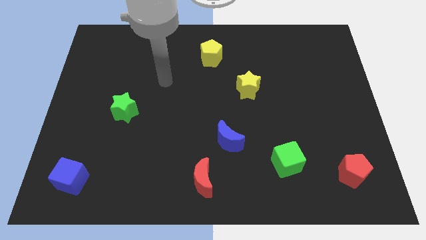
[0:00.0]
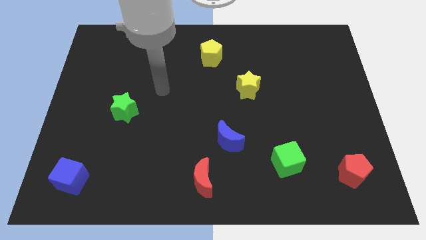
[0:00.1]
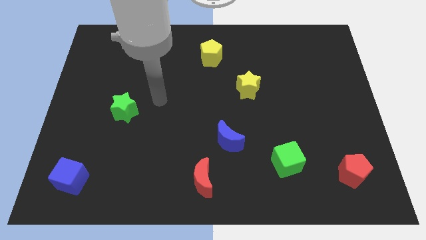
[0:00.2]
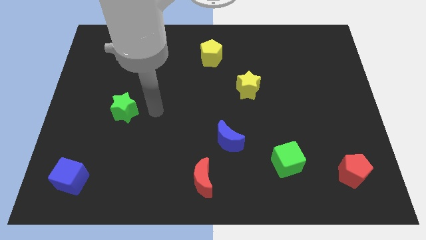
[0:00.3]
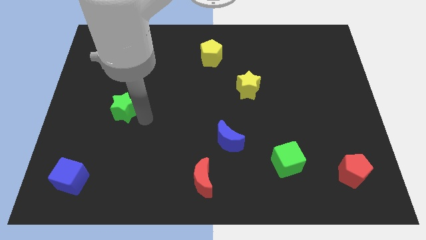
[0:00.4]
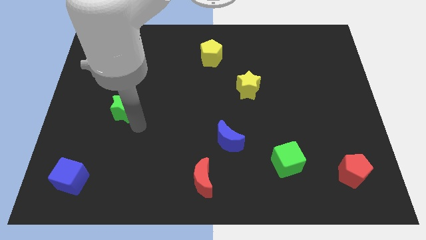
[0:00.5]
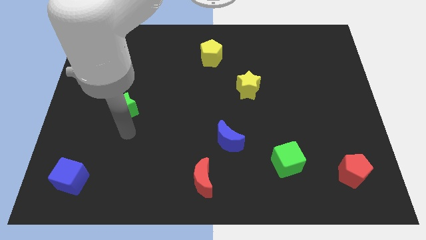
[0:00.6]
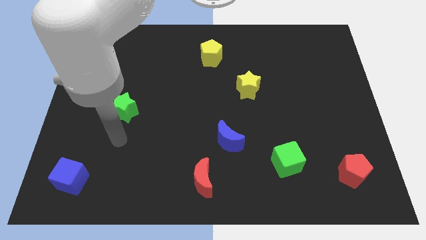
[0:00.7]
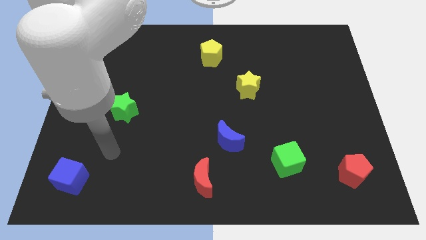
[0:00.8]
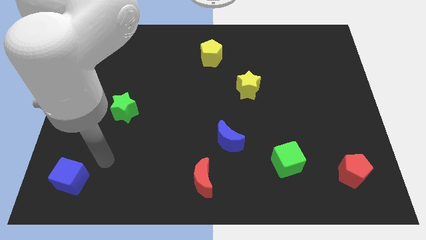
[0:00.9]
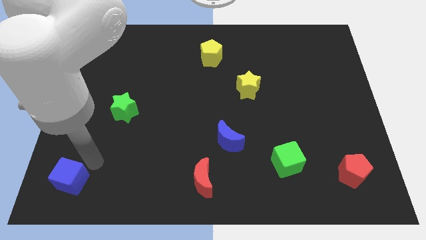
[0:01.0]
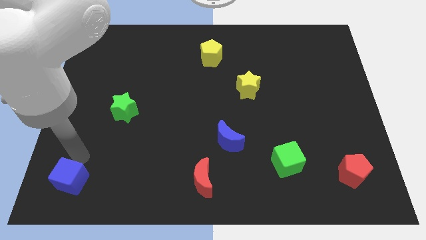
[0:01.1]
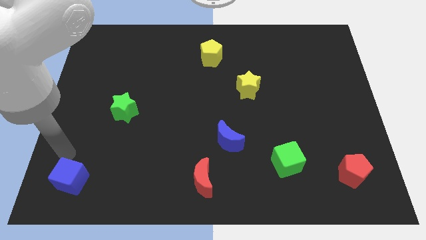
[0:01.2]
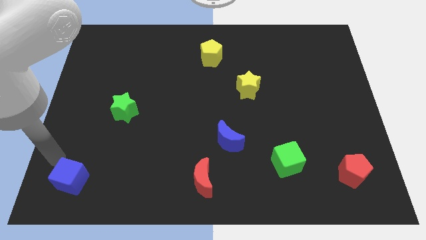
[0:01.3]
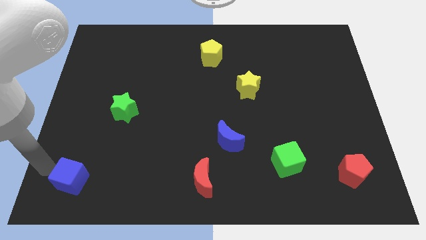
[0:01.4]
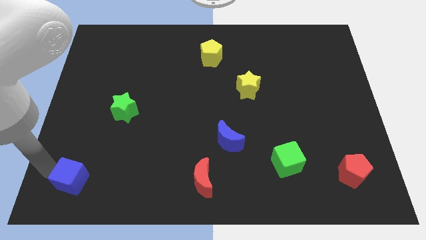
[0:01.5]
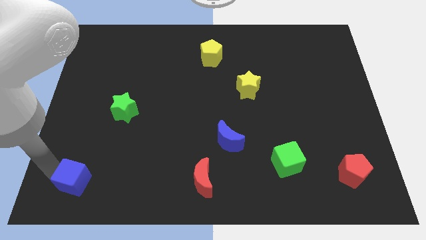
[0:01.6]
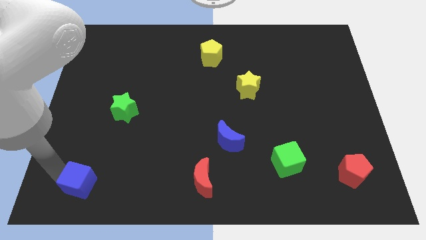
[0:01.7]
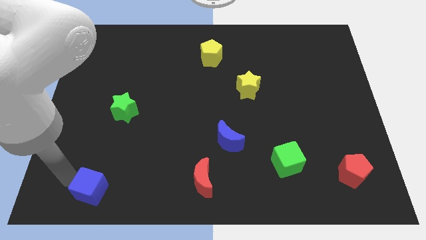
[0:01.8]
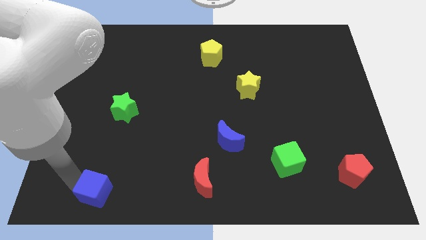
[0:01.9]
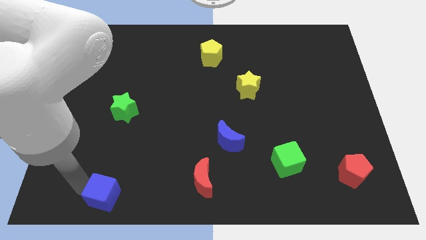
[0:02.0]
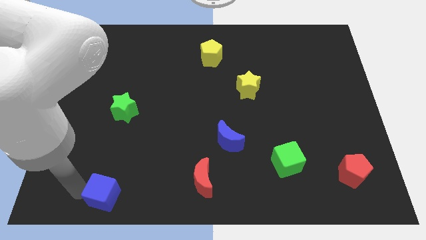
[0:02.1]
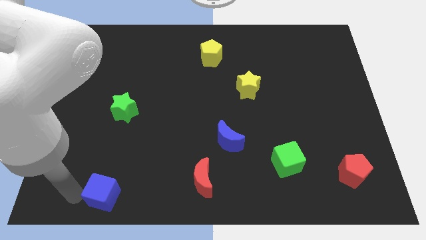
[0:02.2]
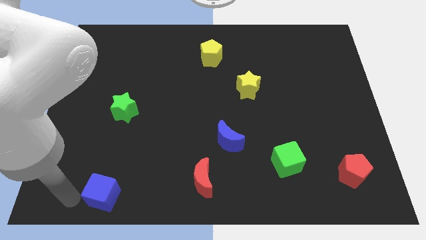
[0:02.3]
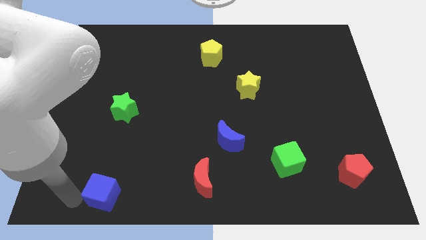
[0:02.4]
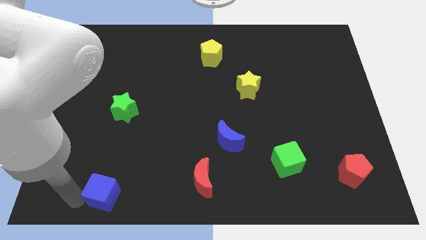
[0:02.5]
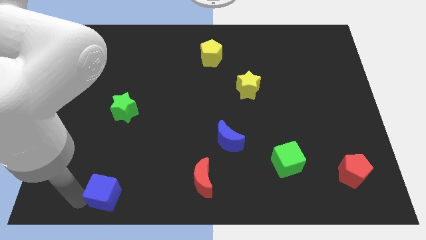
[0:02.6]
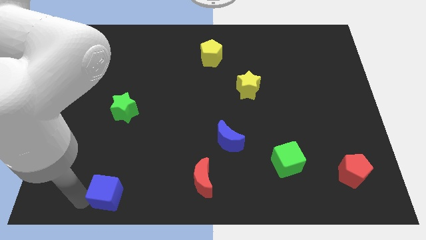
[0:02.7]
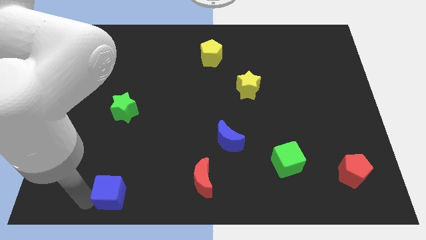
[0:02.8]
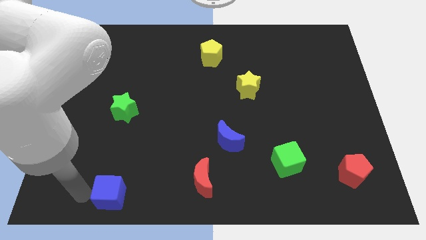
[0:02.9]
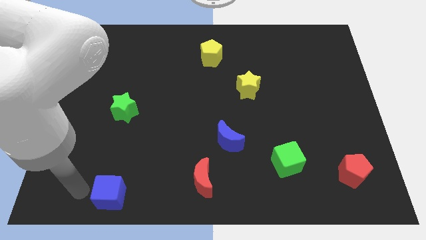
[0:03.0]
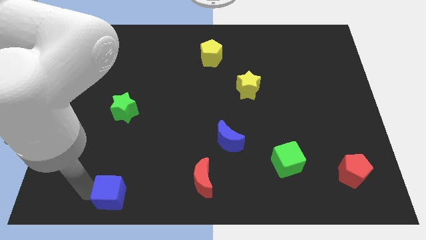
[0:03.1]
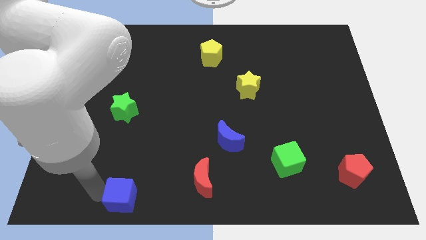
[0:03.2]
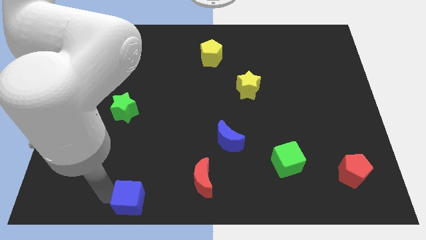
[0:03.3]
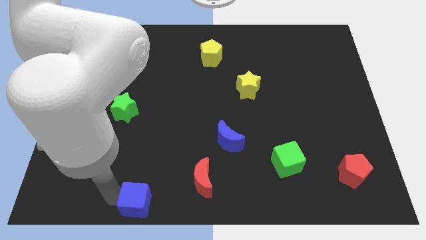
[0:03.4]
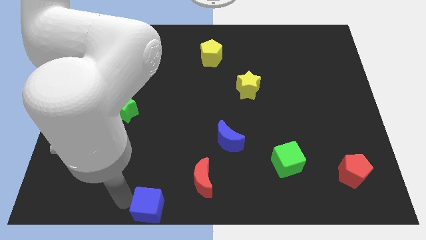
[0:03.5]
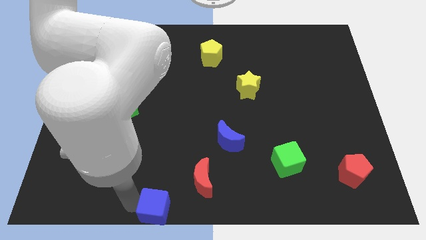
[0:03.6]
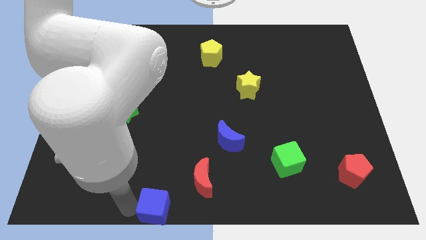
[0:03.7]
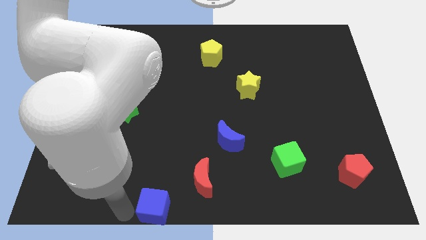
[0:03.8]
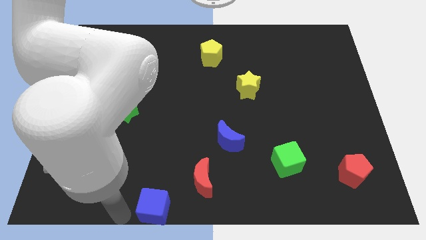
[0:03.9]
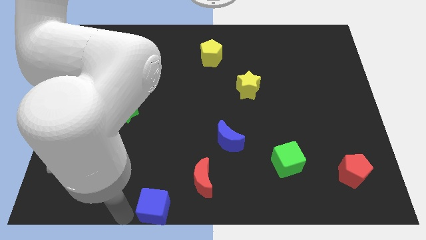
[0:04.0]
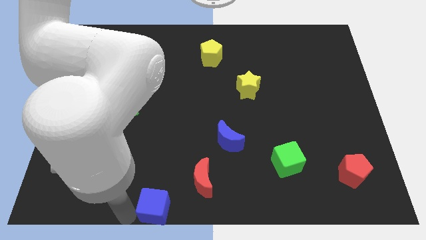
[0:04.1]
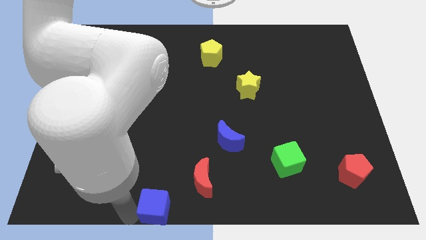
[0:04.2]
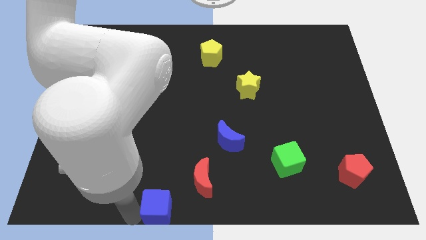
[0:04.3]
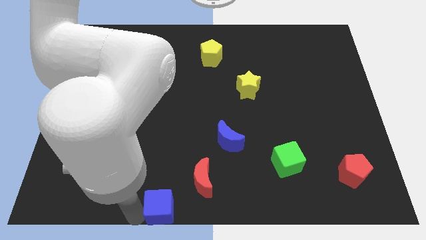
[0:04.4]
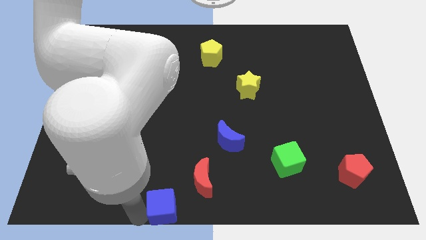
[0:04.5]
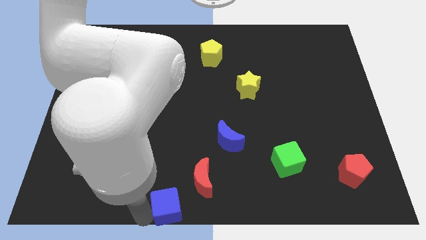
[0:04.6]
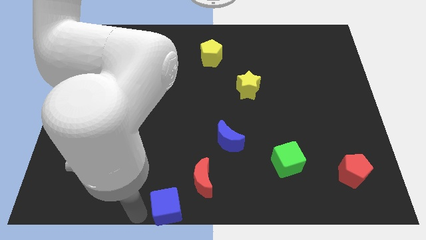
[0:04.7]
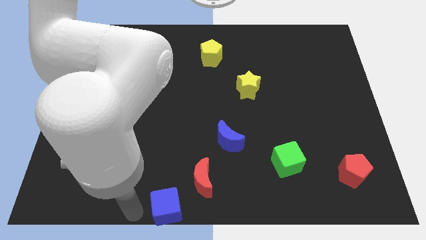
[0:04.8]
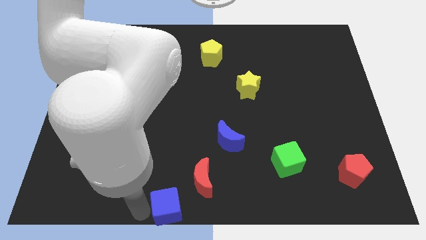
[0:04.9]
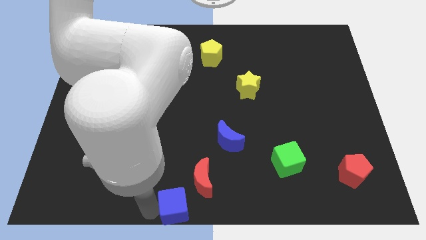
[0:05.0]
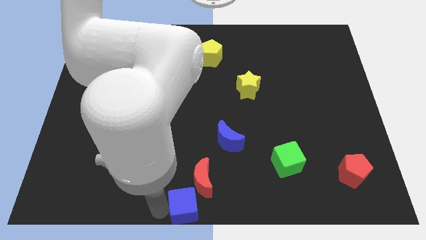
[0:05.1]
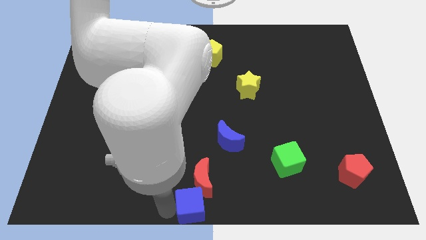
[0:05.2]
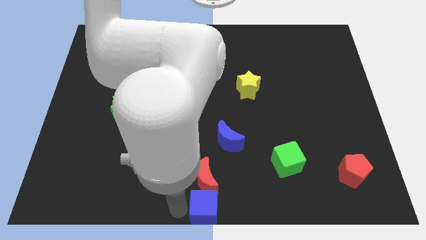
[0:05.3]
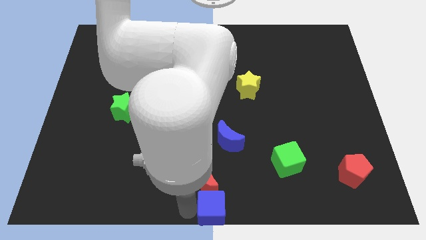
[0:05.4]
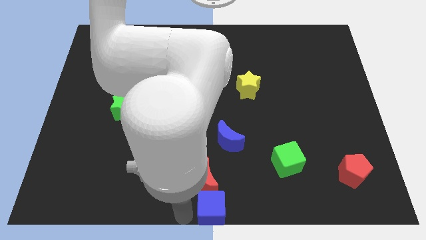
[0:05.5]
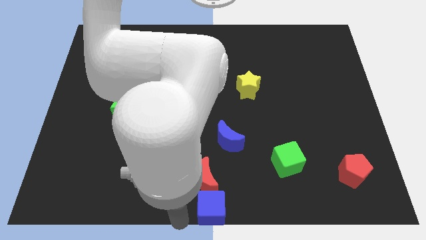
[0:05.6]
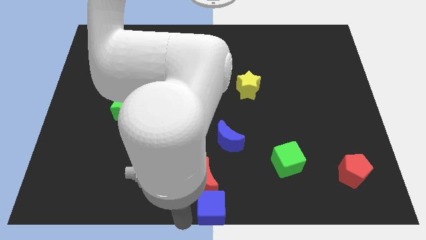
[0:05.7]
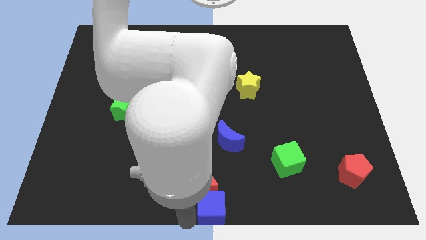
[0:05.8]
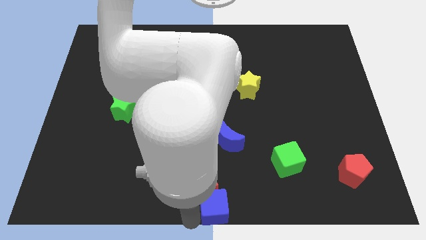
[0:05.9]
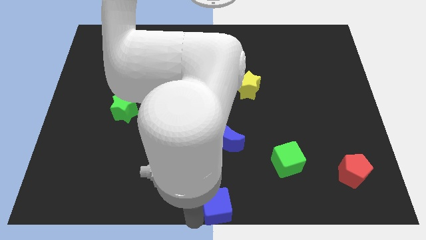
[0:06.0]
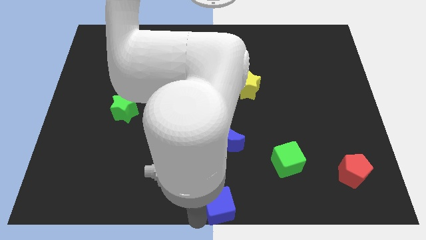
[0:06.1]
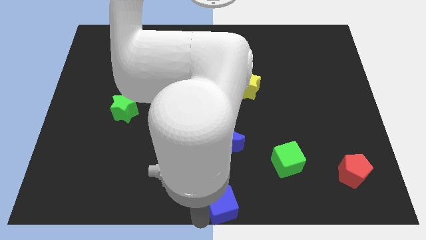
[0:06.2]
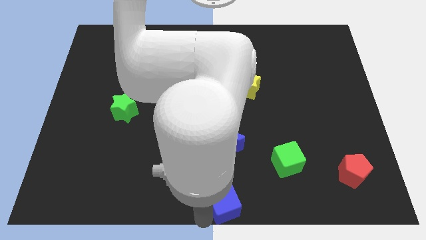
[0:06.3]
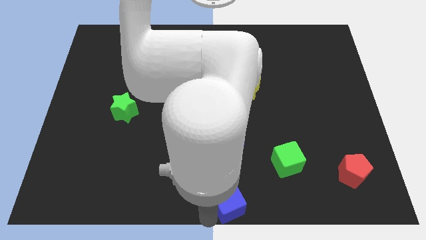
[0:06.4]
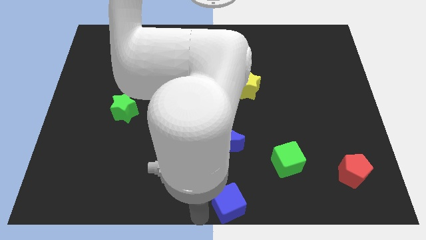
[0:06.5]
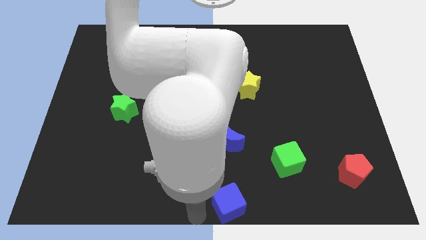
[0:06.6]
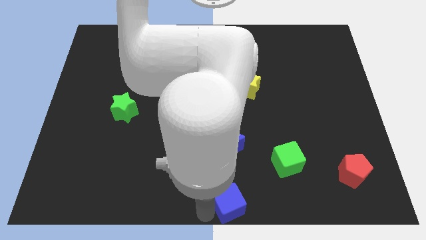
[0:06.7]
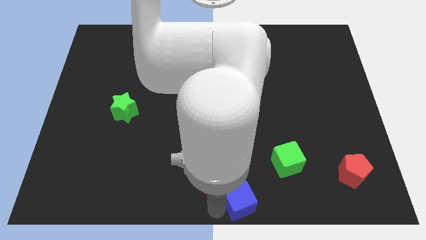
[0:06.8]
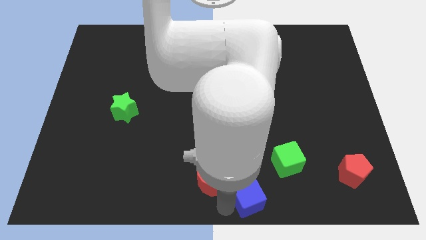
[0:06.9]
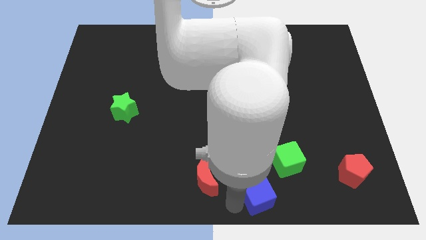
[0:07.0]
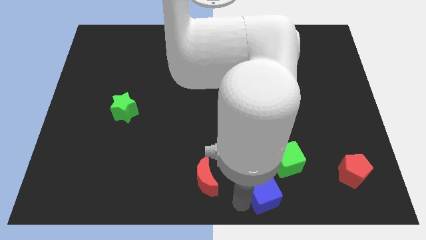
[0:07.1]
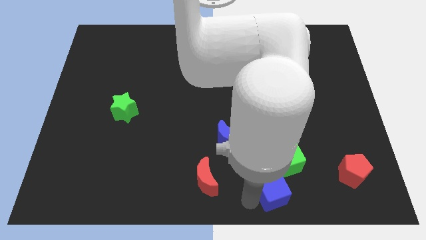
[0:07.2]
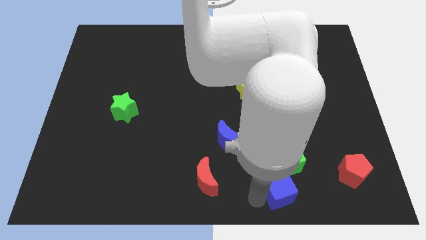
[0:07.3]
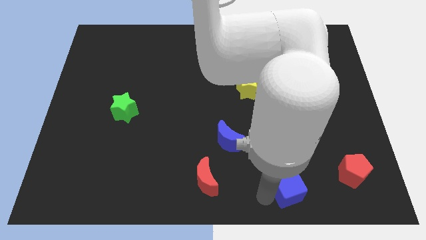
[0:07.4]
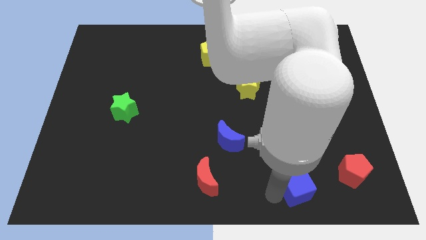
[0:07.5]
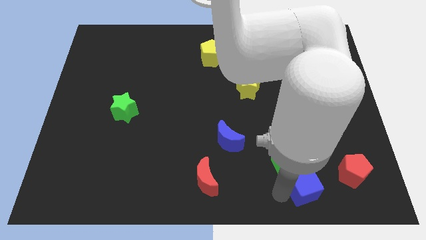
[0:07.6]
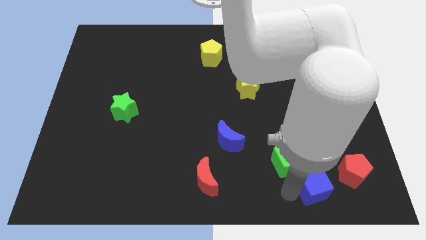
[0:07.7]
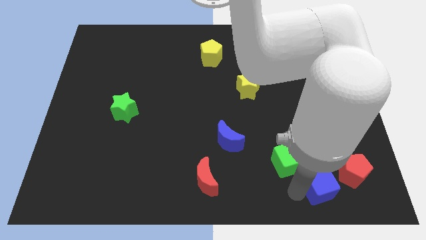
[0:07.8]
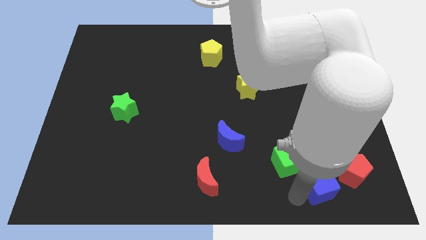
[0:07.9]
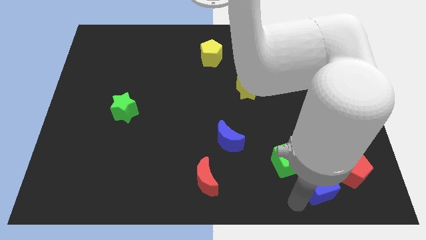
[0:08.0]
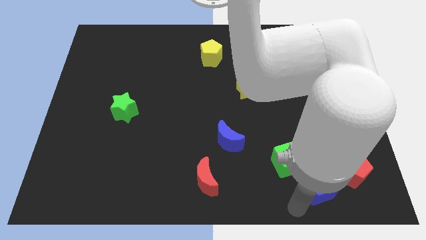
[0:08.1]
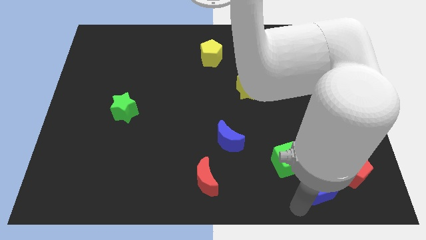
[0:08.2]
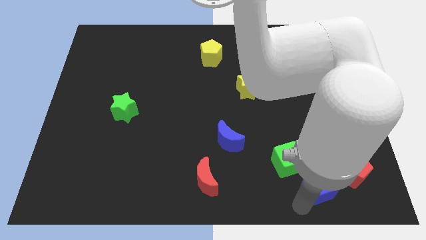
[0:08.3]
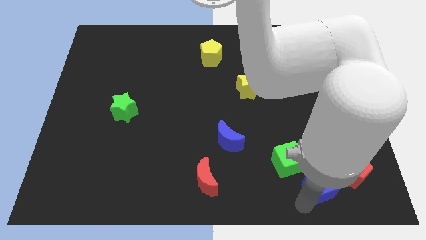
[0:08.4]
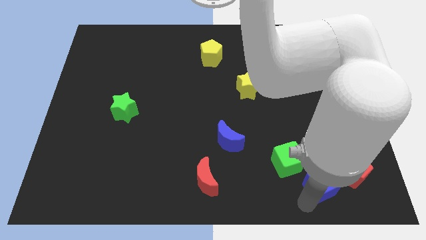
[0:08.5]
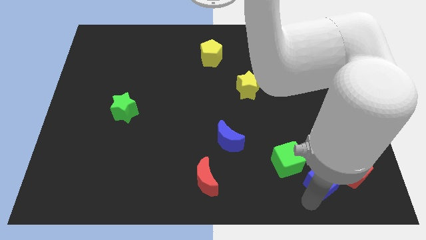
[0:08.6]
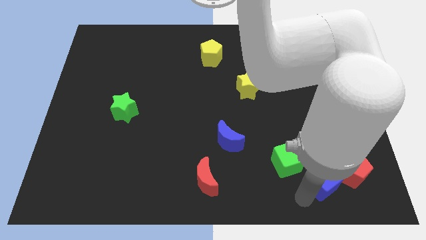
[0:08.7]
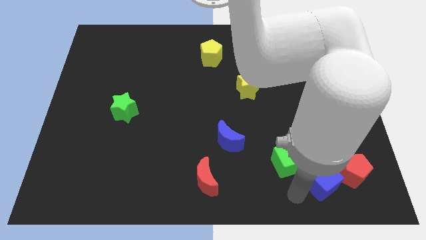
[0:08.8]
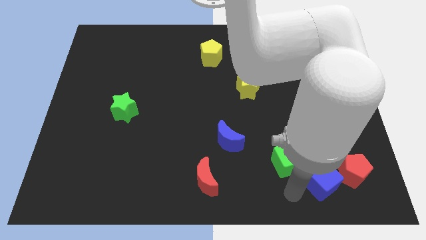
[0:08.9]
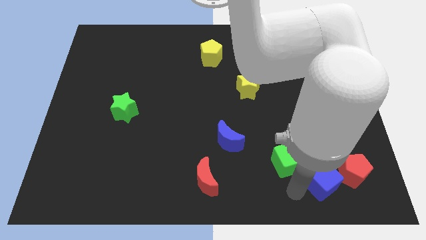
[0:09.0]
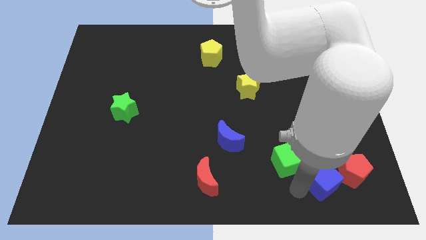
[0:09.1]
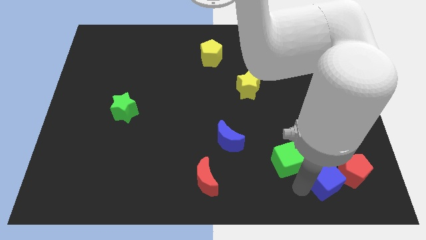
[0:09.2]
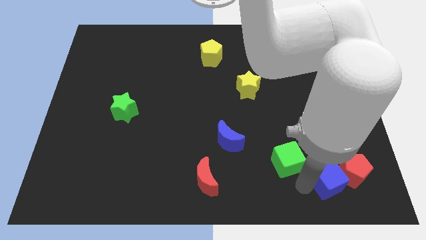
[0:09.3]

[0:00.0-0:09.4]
push the blue cube close to the red pentagon
